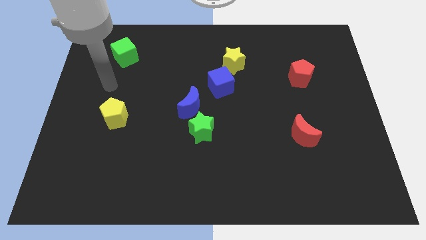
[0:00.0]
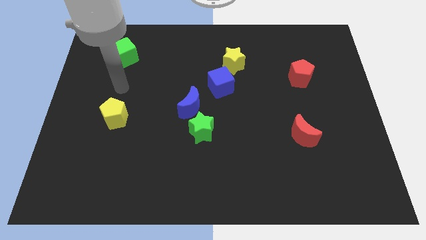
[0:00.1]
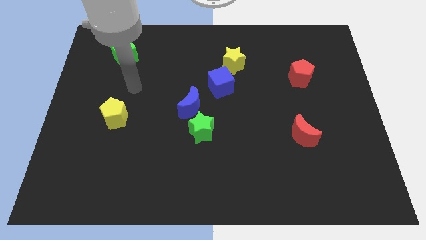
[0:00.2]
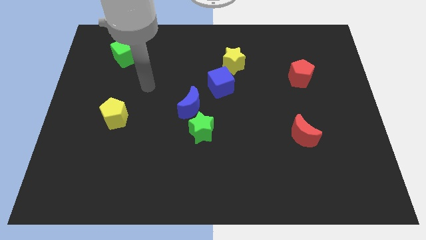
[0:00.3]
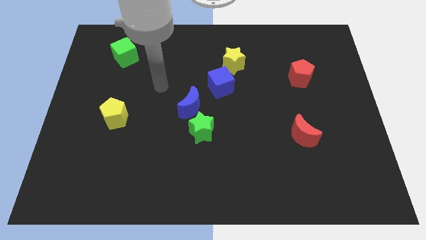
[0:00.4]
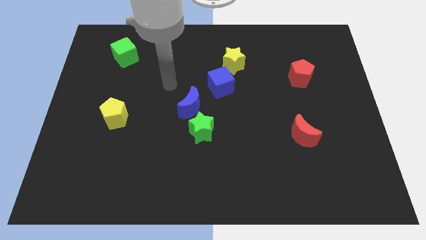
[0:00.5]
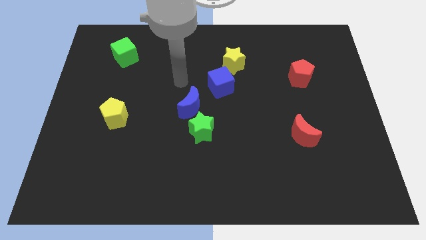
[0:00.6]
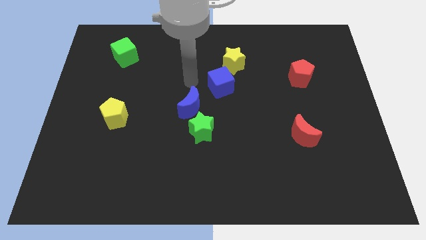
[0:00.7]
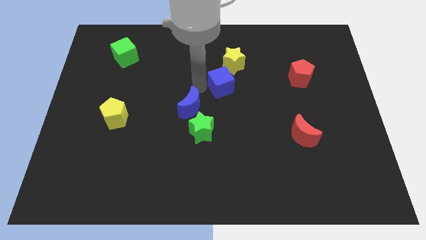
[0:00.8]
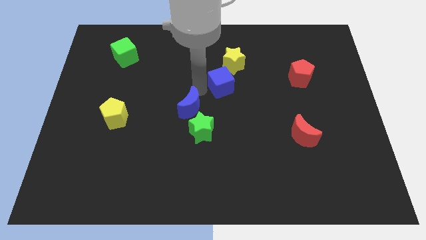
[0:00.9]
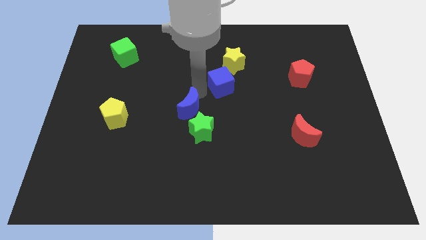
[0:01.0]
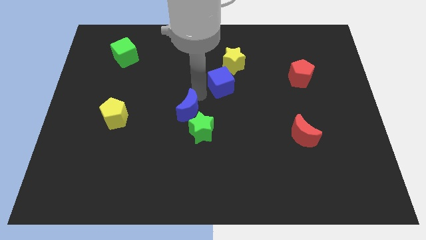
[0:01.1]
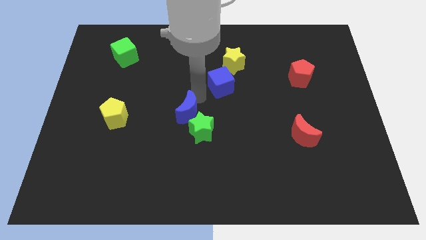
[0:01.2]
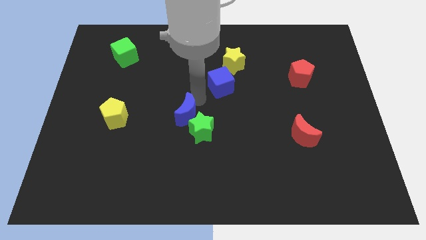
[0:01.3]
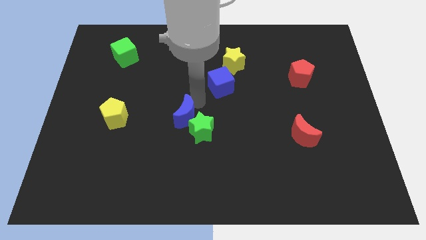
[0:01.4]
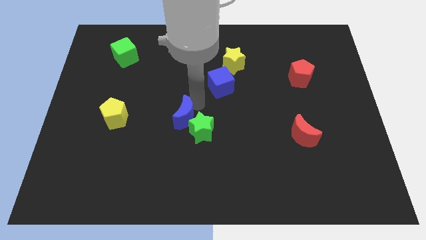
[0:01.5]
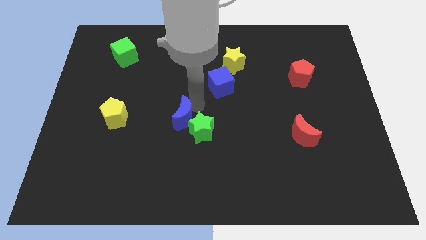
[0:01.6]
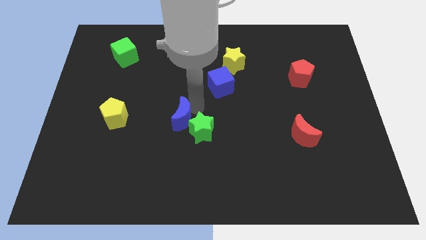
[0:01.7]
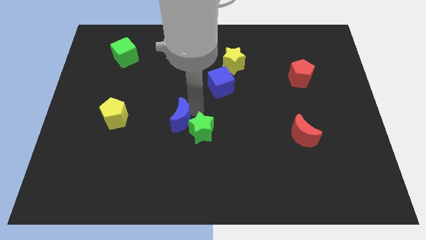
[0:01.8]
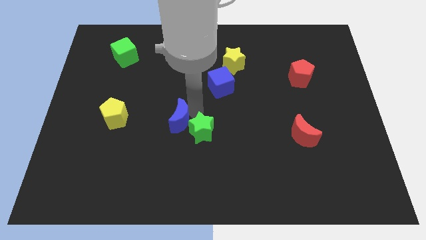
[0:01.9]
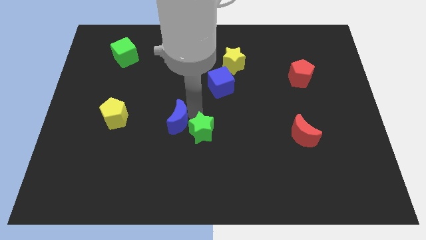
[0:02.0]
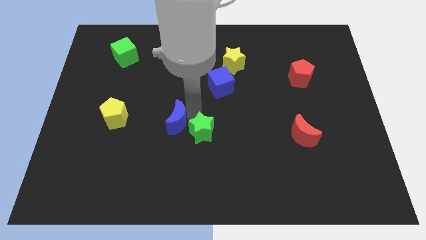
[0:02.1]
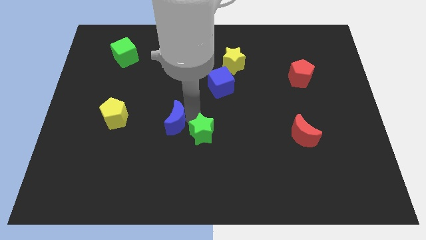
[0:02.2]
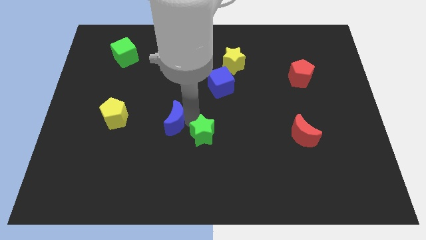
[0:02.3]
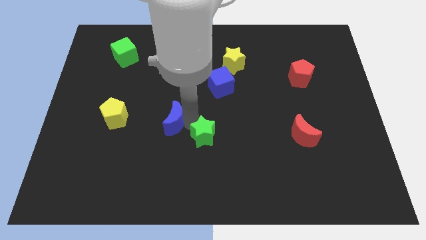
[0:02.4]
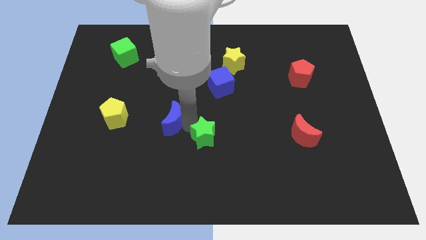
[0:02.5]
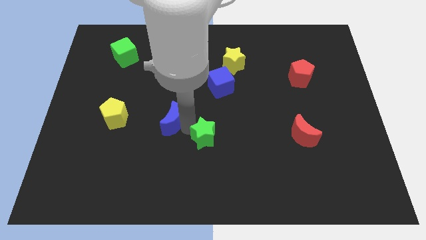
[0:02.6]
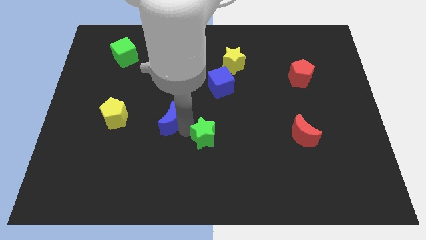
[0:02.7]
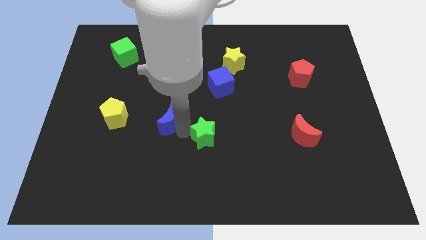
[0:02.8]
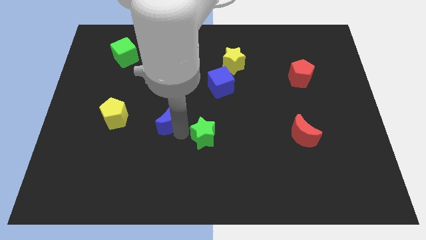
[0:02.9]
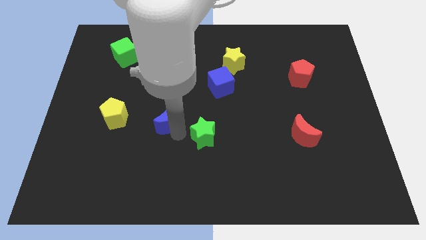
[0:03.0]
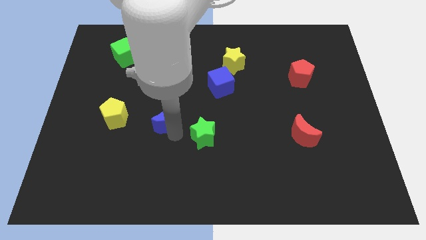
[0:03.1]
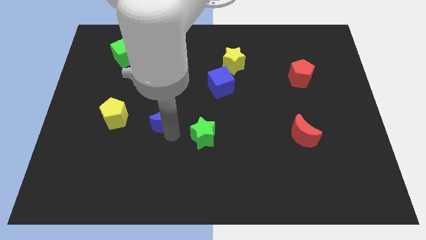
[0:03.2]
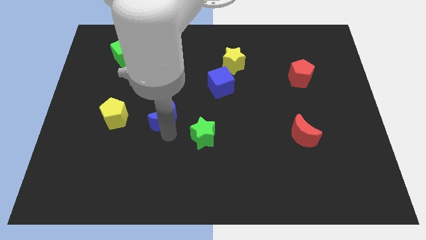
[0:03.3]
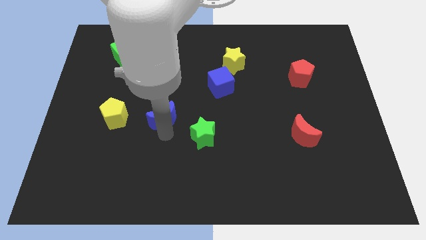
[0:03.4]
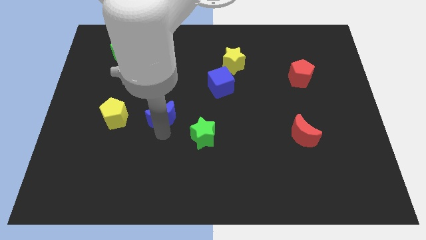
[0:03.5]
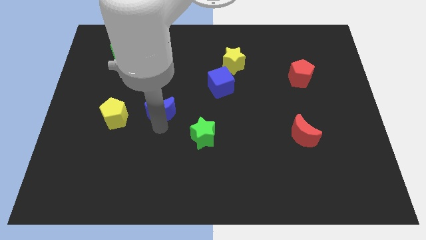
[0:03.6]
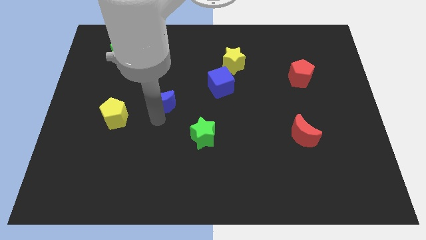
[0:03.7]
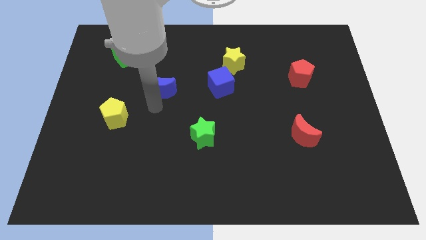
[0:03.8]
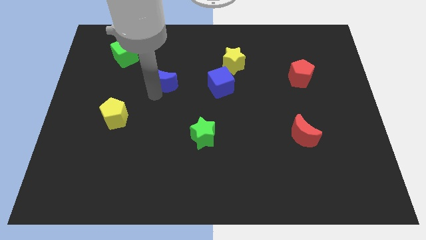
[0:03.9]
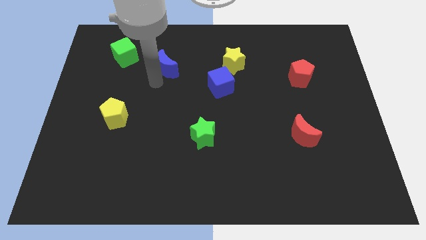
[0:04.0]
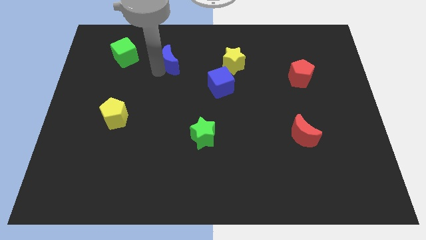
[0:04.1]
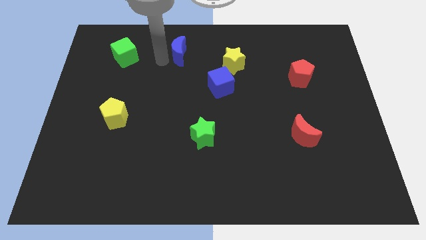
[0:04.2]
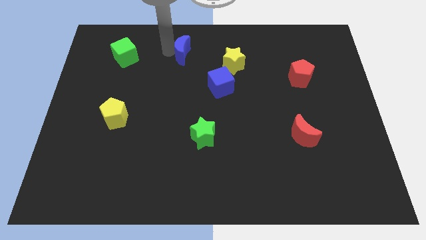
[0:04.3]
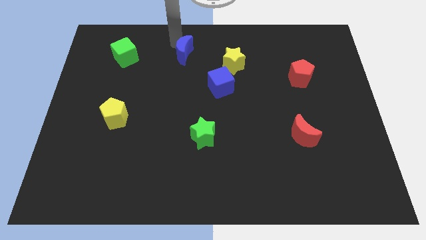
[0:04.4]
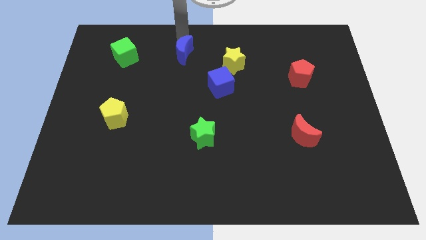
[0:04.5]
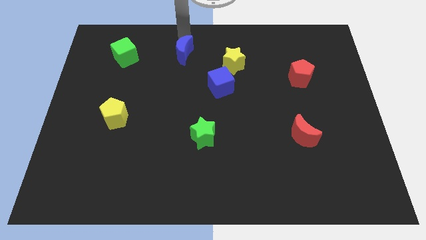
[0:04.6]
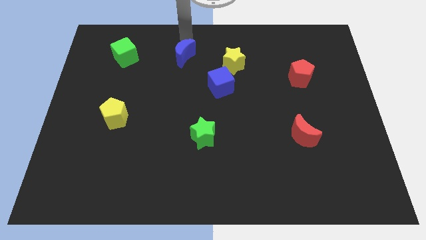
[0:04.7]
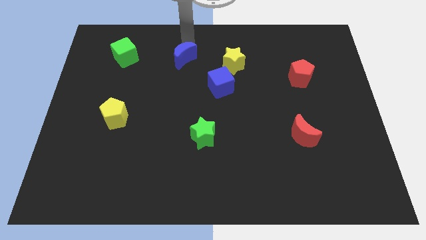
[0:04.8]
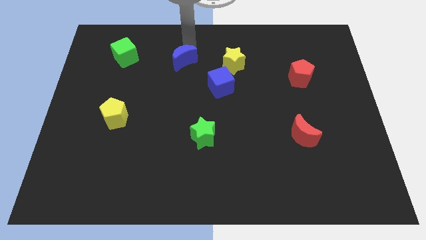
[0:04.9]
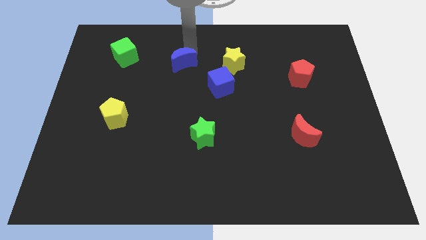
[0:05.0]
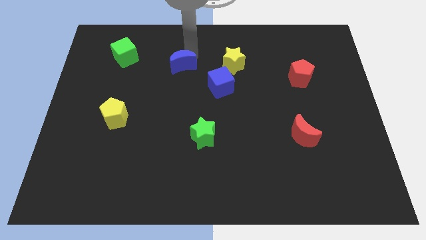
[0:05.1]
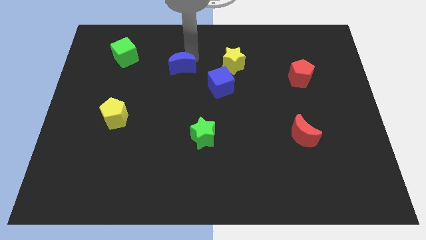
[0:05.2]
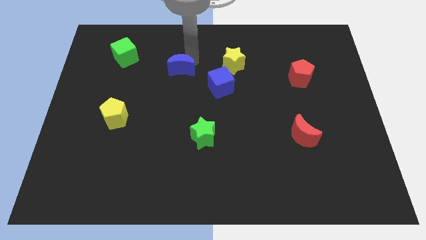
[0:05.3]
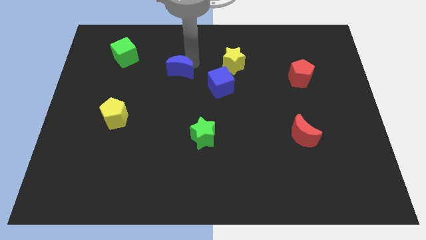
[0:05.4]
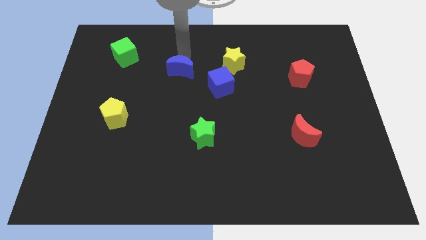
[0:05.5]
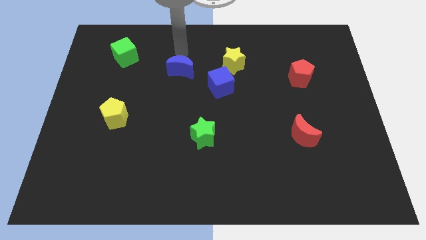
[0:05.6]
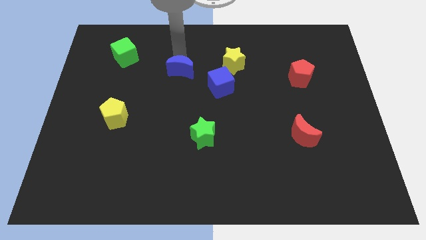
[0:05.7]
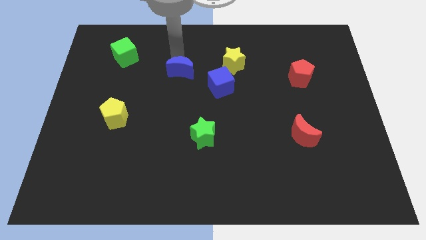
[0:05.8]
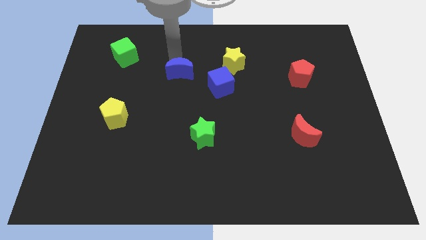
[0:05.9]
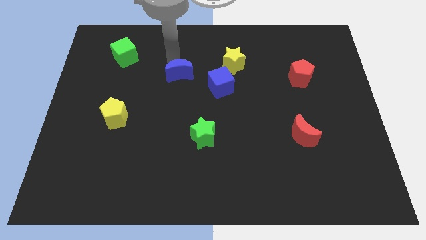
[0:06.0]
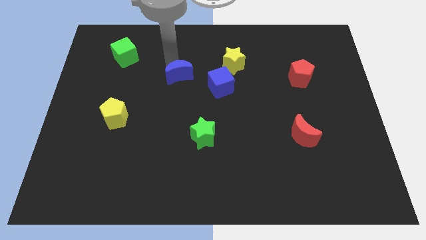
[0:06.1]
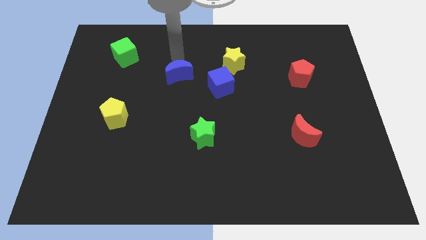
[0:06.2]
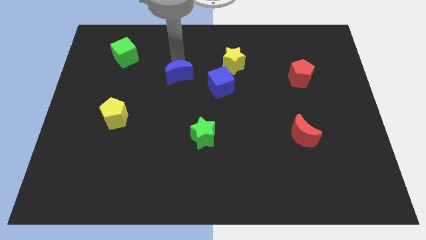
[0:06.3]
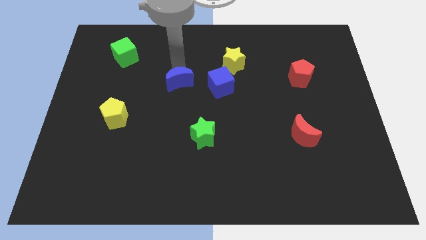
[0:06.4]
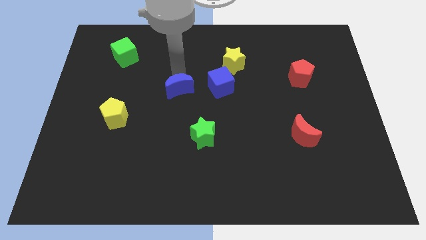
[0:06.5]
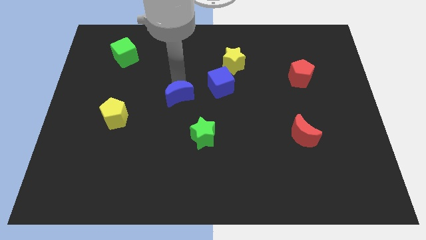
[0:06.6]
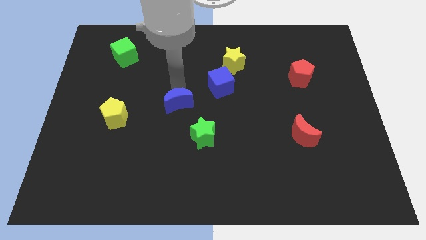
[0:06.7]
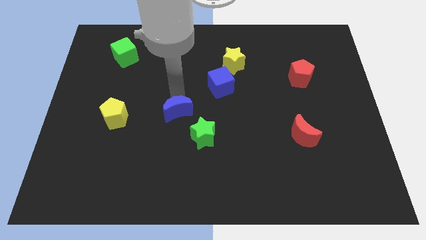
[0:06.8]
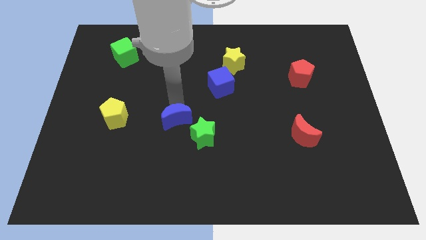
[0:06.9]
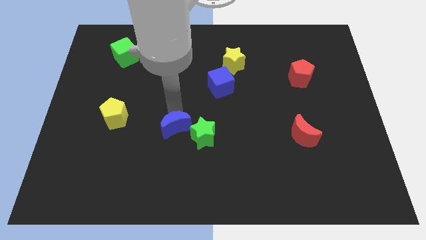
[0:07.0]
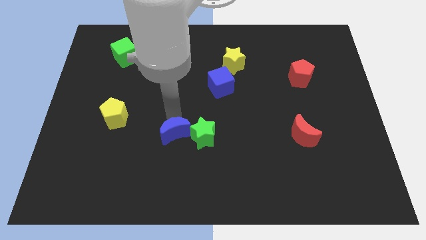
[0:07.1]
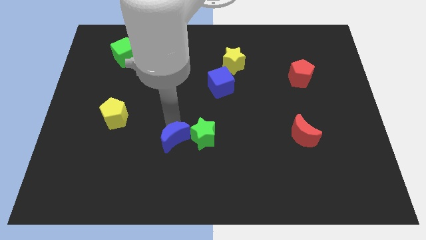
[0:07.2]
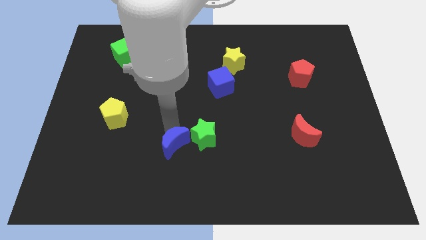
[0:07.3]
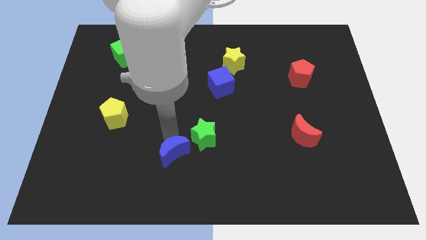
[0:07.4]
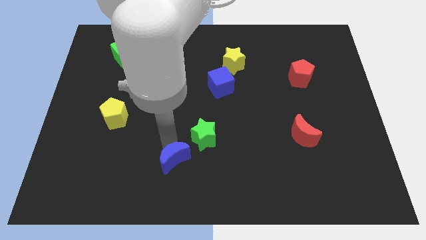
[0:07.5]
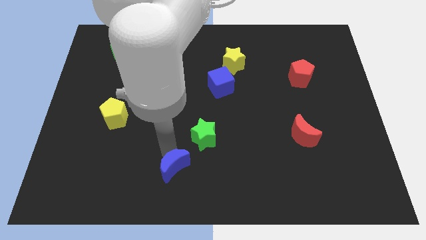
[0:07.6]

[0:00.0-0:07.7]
slide the blue moon to the bottom
